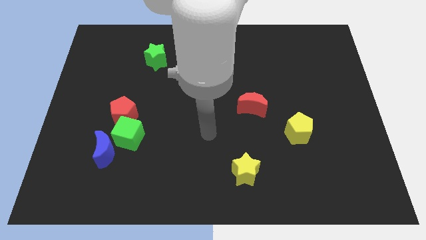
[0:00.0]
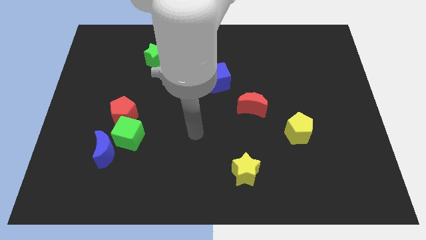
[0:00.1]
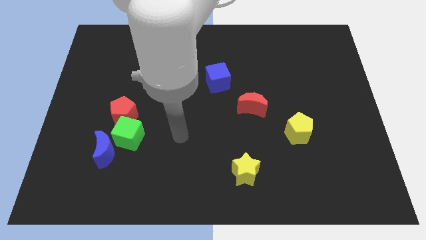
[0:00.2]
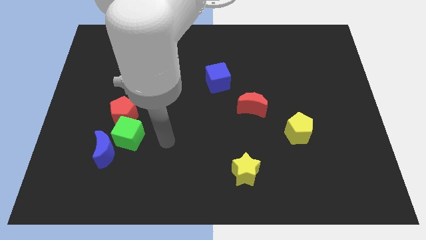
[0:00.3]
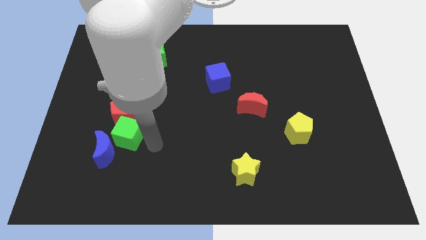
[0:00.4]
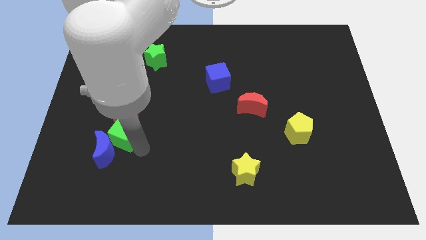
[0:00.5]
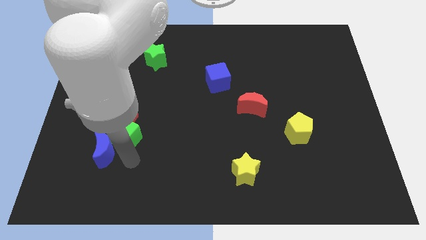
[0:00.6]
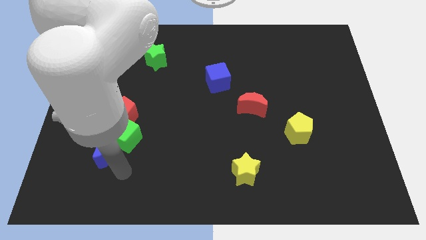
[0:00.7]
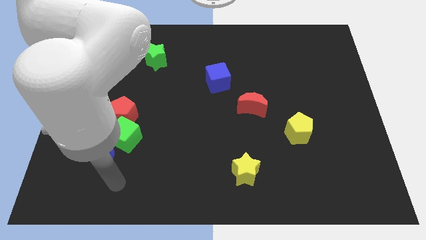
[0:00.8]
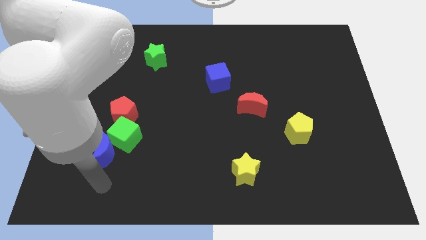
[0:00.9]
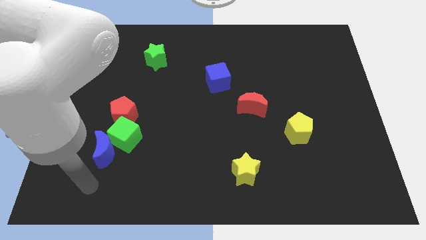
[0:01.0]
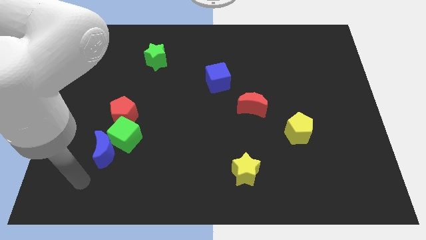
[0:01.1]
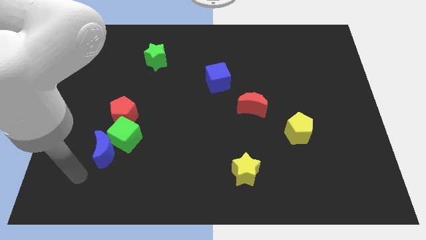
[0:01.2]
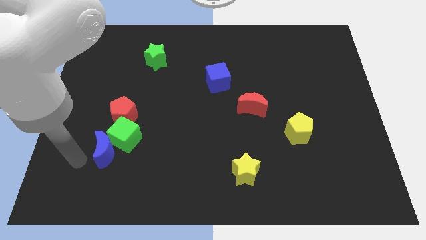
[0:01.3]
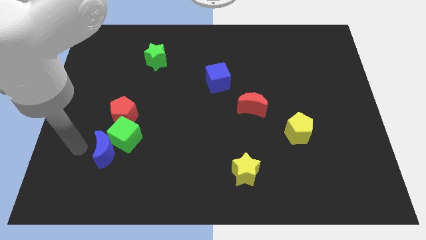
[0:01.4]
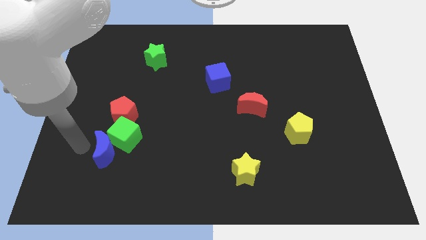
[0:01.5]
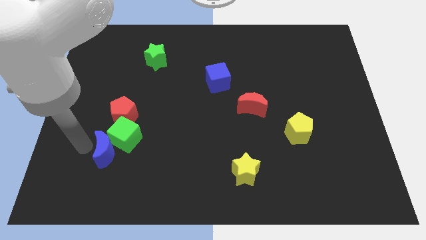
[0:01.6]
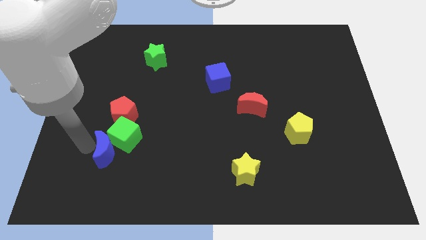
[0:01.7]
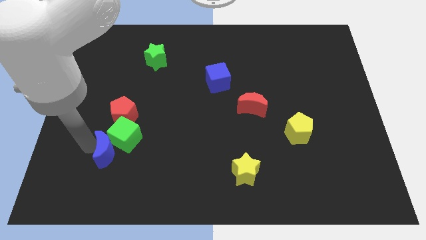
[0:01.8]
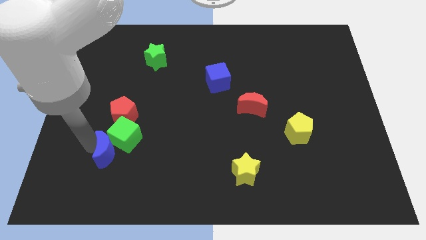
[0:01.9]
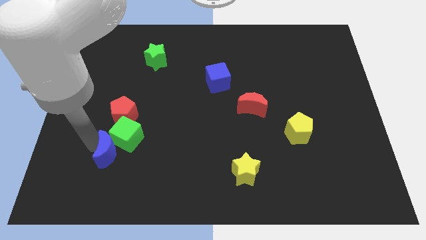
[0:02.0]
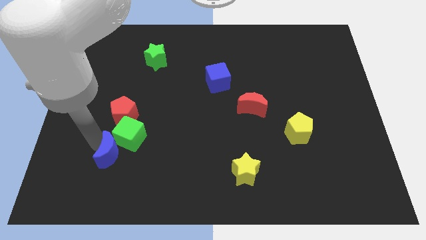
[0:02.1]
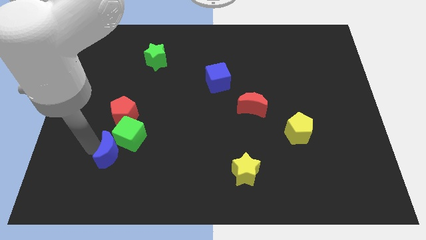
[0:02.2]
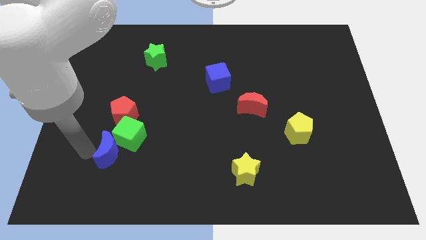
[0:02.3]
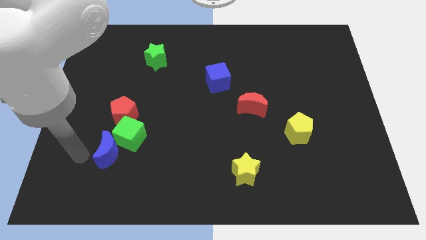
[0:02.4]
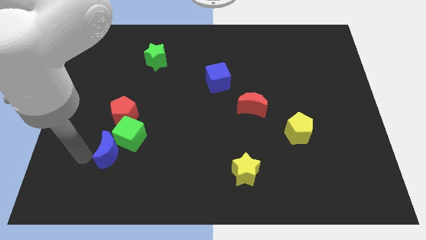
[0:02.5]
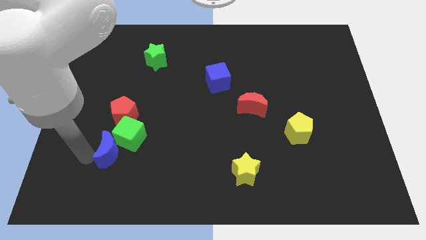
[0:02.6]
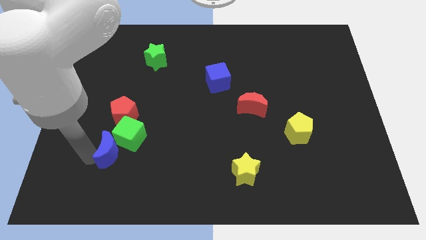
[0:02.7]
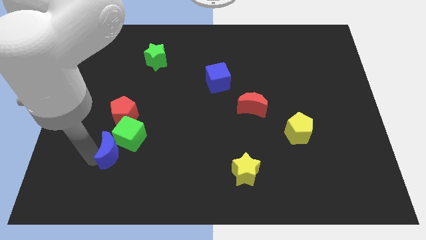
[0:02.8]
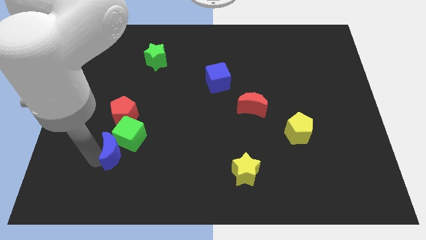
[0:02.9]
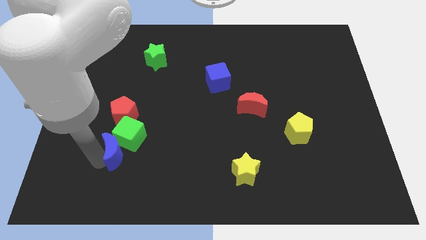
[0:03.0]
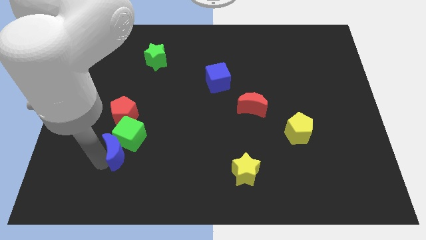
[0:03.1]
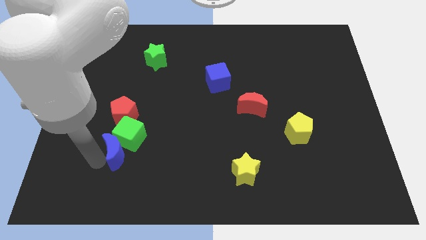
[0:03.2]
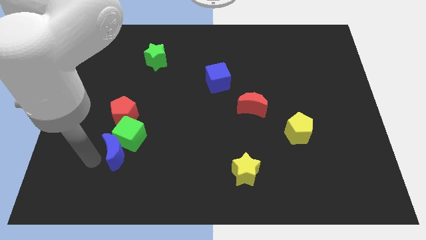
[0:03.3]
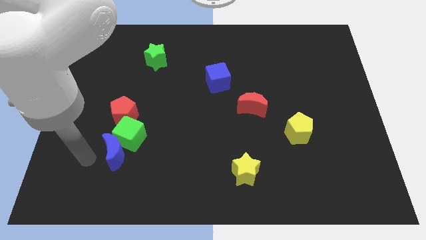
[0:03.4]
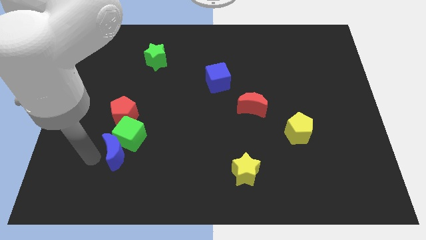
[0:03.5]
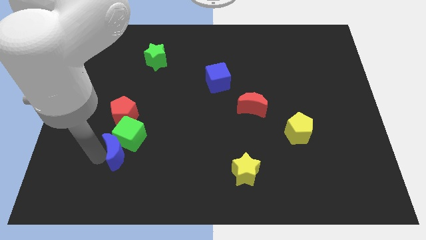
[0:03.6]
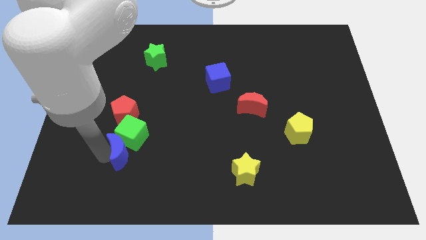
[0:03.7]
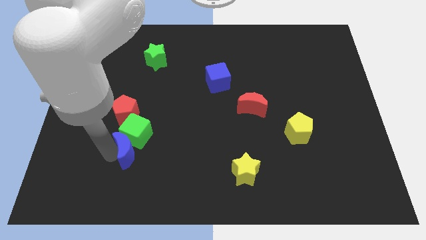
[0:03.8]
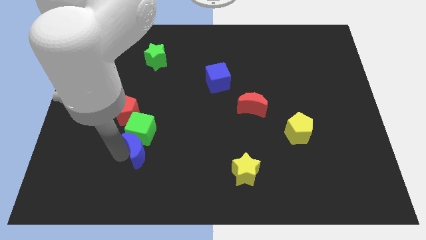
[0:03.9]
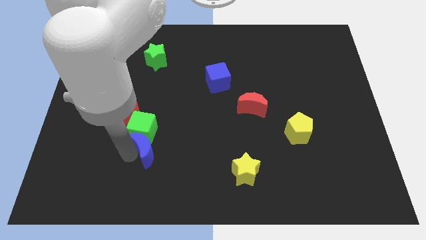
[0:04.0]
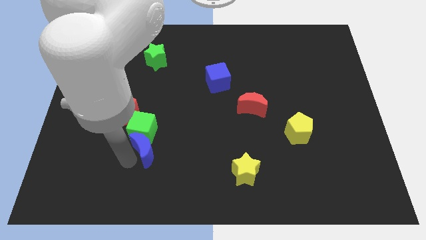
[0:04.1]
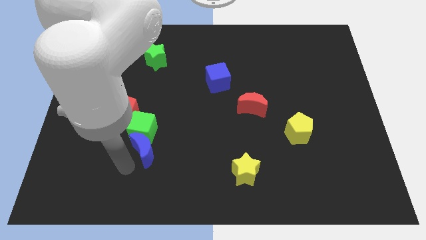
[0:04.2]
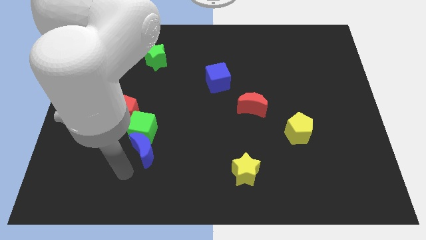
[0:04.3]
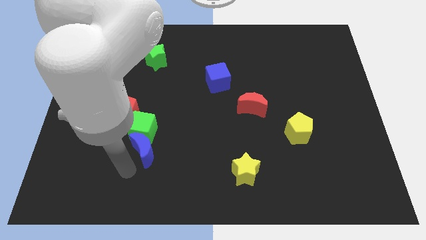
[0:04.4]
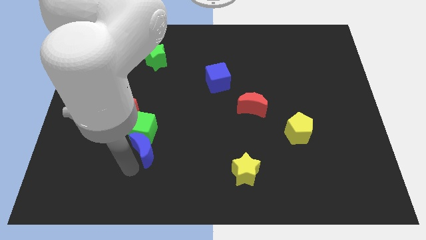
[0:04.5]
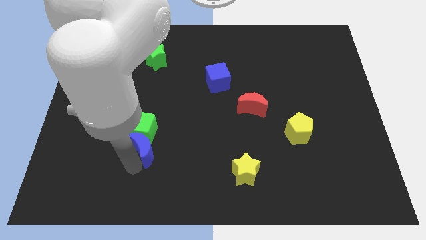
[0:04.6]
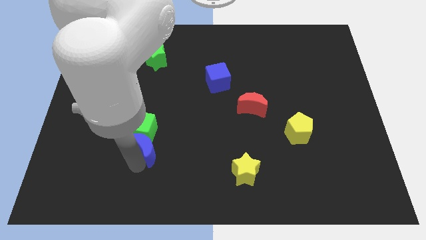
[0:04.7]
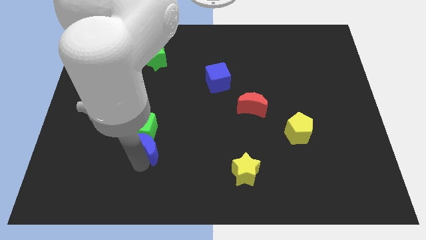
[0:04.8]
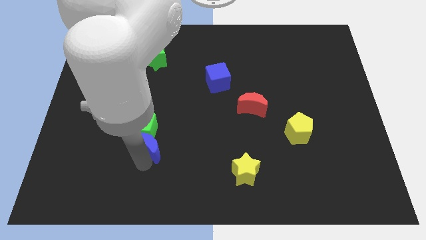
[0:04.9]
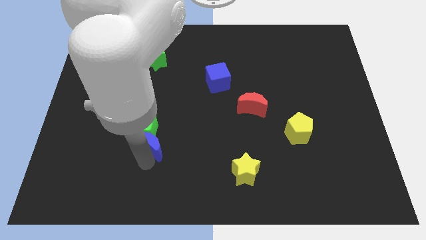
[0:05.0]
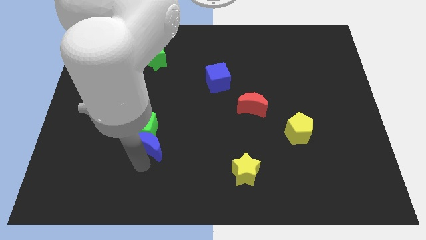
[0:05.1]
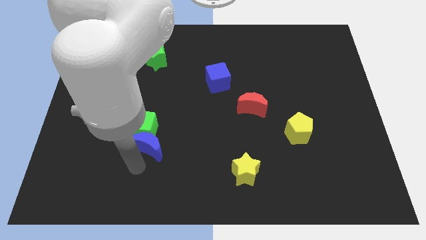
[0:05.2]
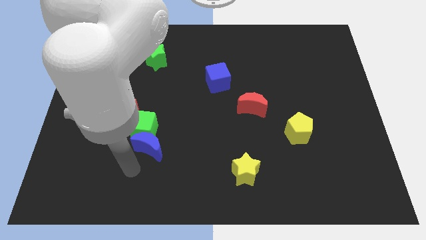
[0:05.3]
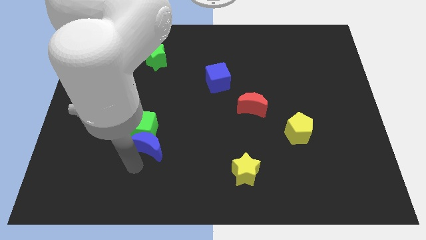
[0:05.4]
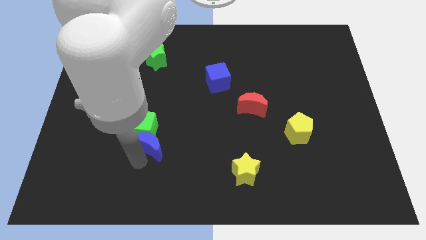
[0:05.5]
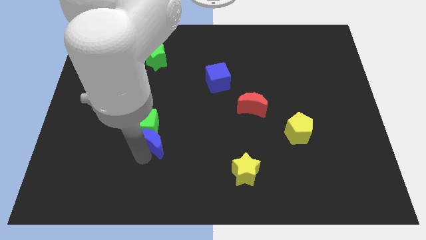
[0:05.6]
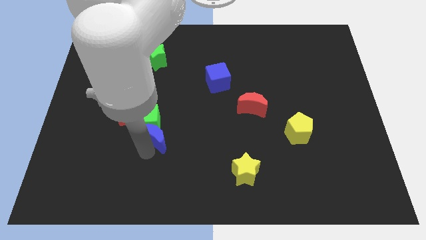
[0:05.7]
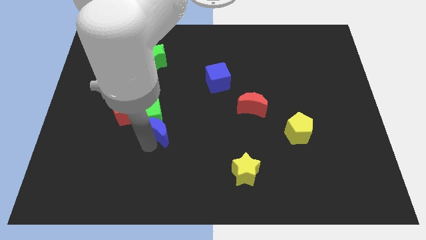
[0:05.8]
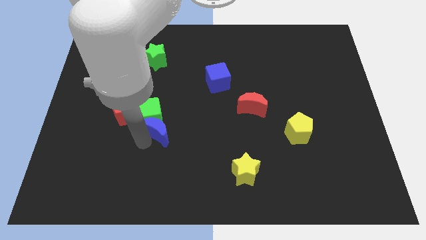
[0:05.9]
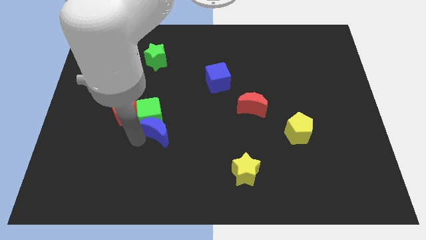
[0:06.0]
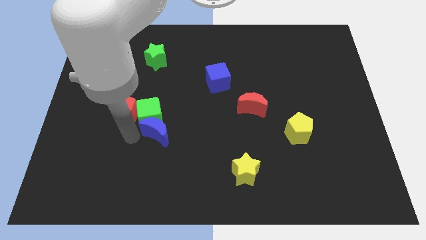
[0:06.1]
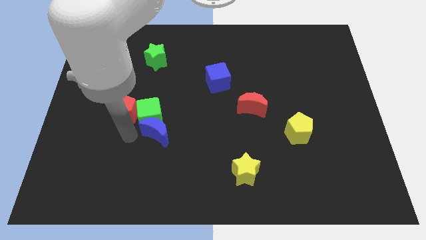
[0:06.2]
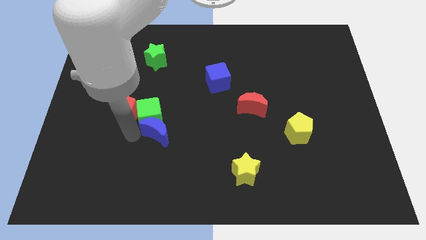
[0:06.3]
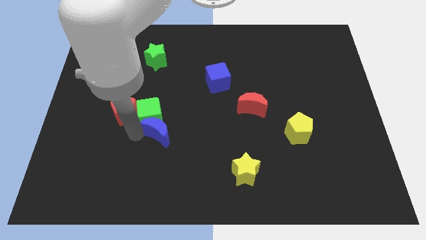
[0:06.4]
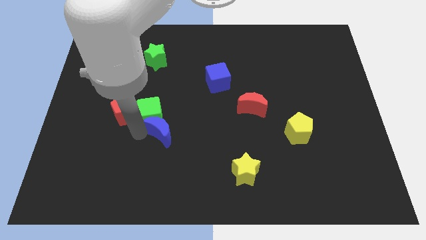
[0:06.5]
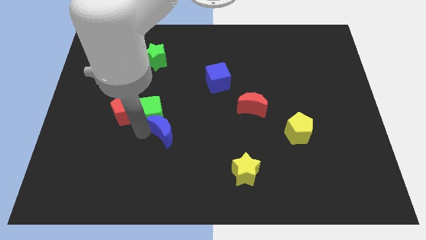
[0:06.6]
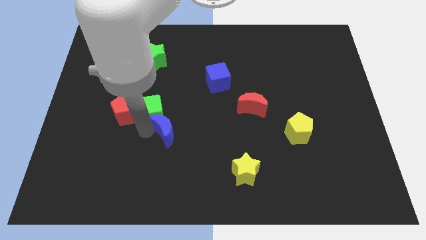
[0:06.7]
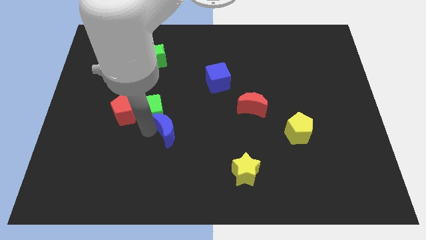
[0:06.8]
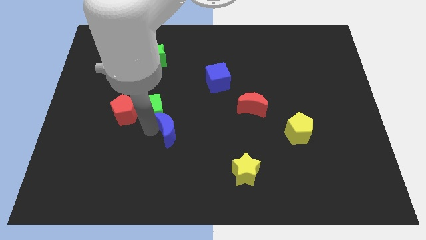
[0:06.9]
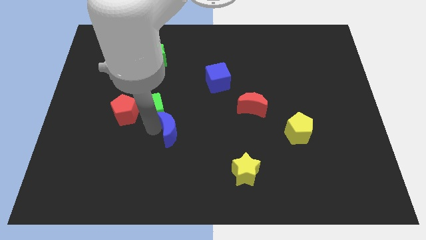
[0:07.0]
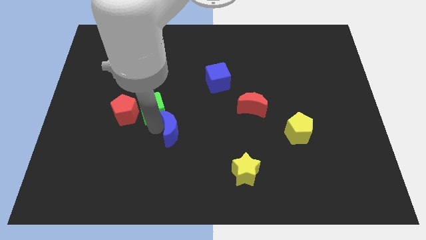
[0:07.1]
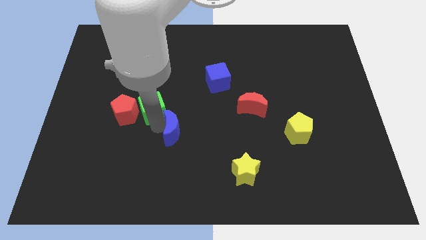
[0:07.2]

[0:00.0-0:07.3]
move the blue moon to the middle of the board
